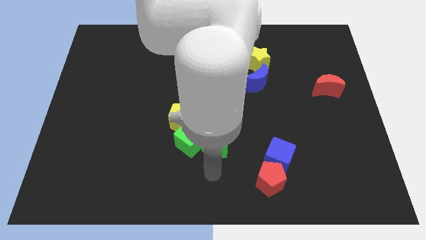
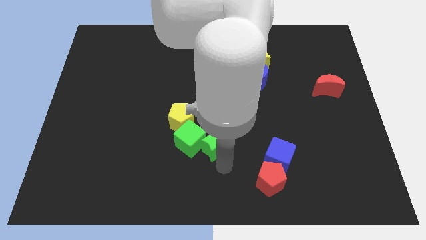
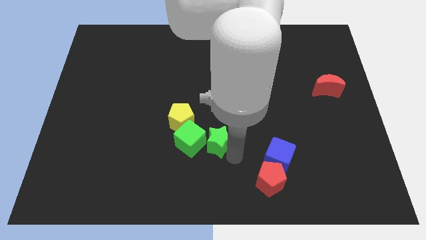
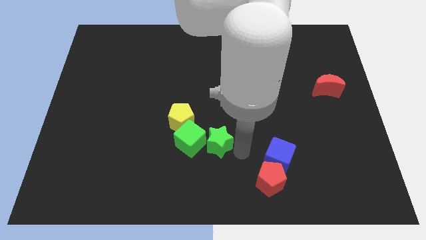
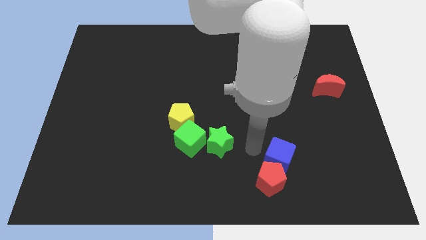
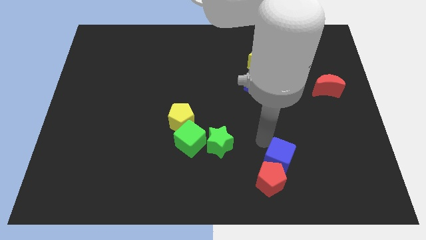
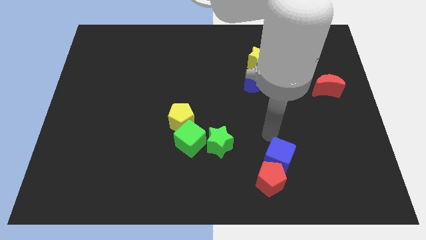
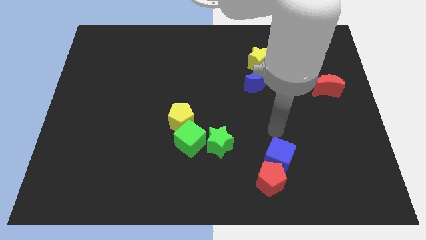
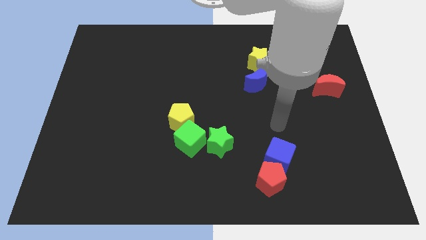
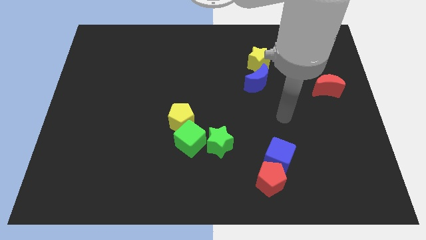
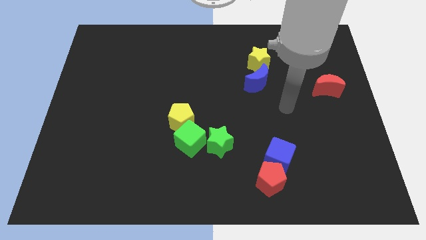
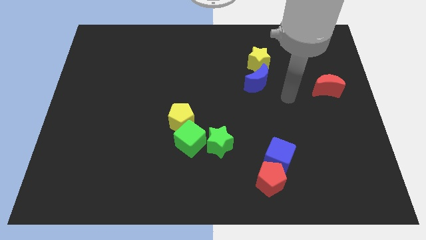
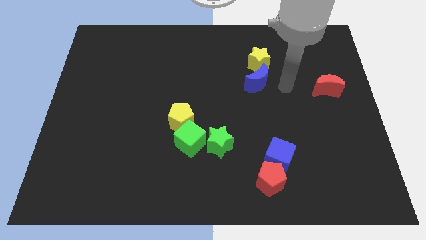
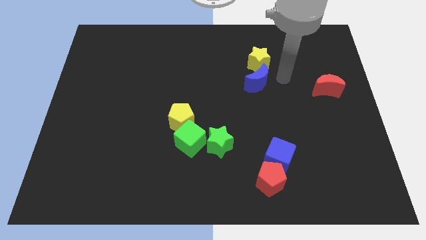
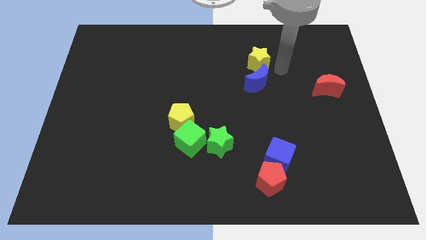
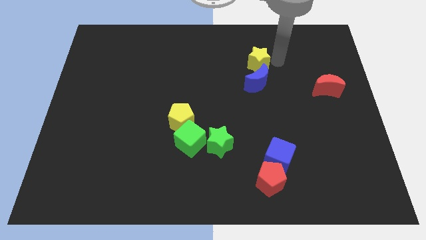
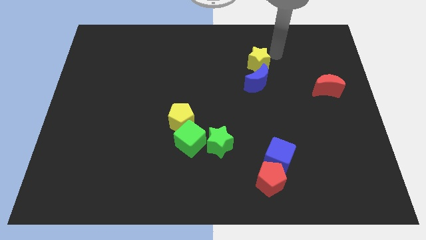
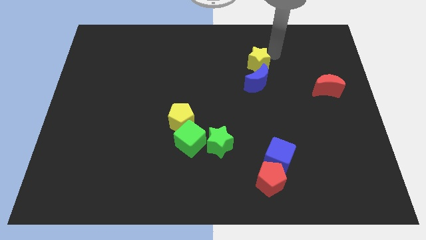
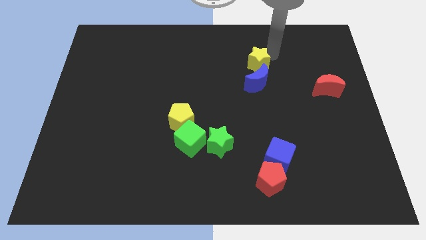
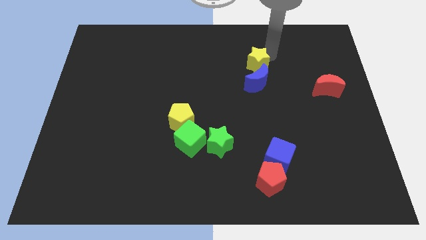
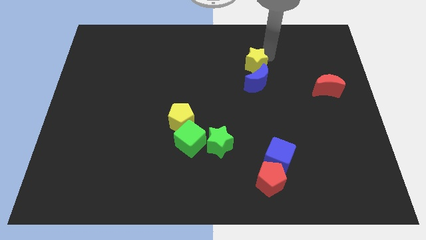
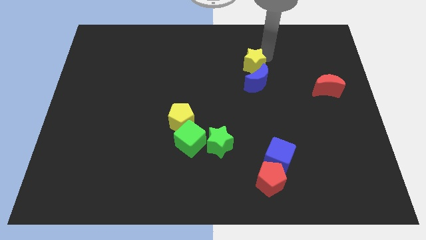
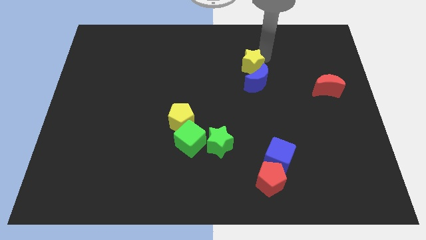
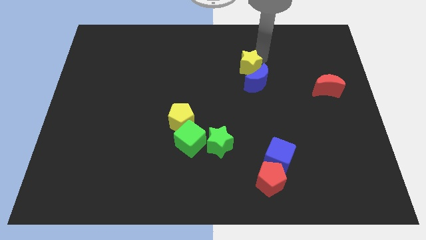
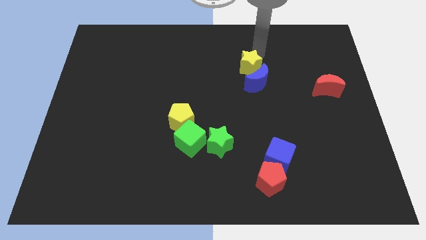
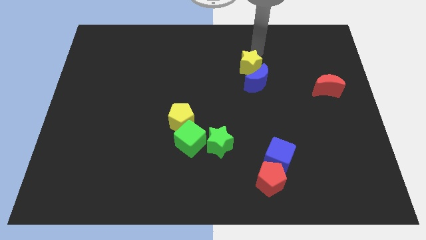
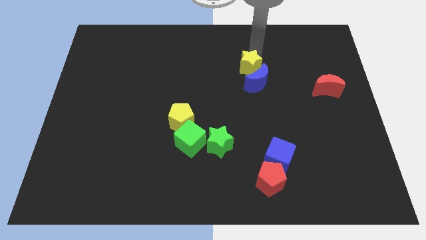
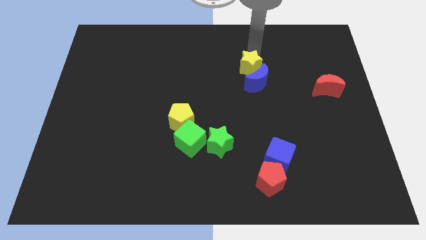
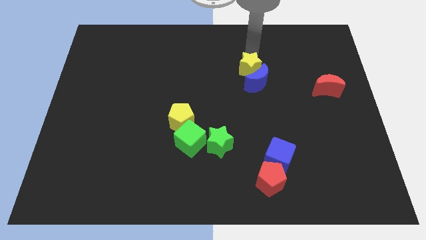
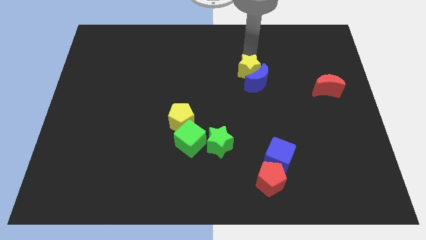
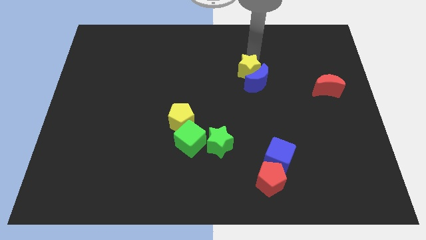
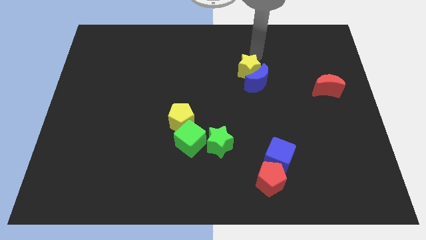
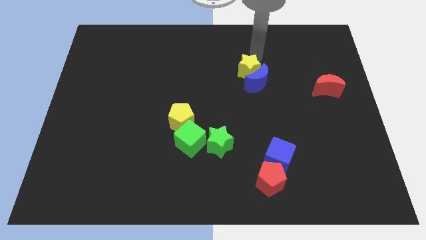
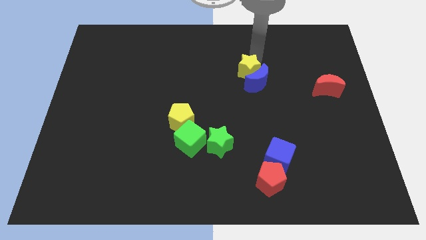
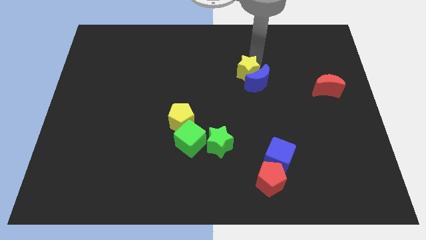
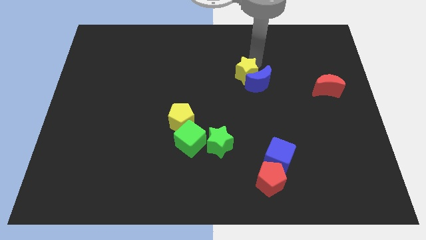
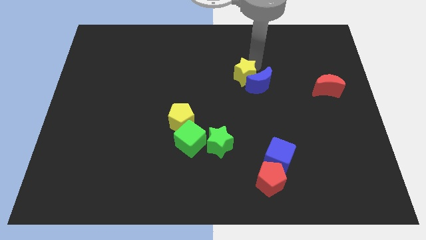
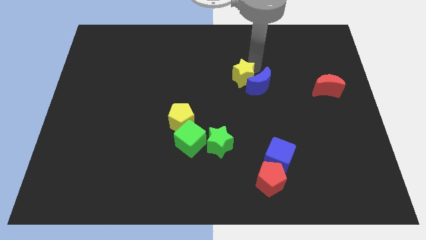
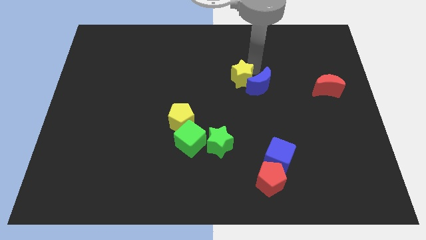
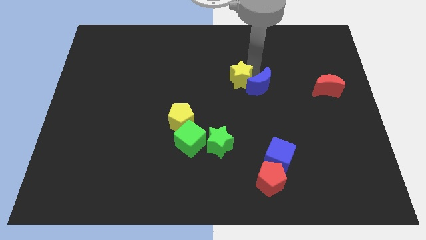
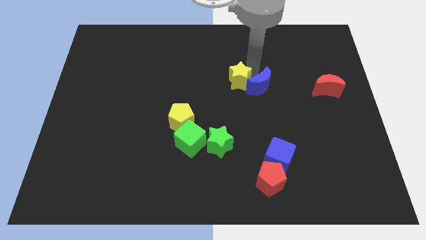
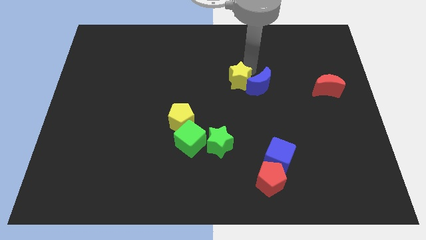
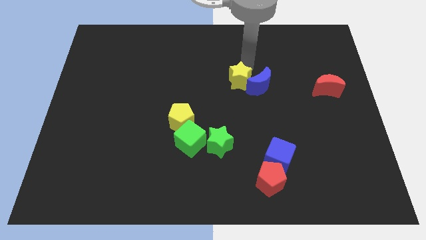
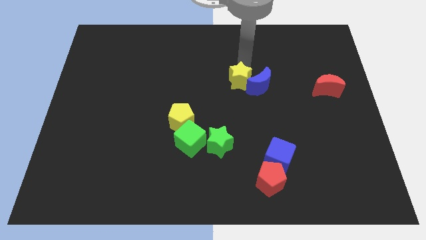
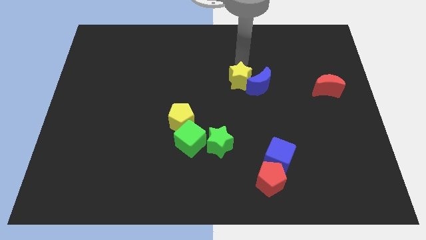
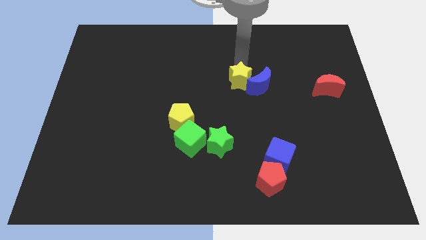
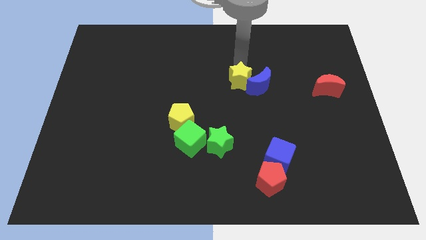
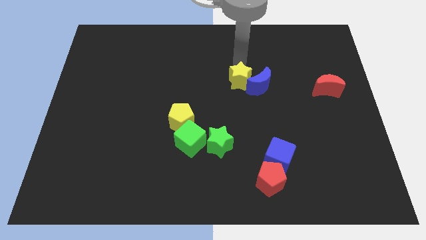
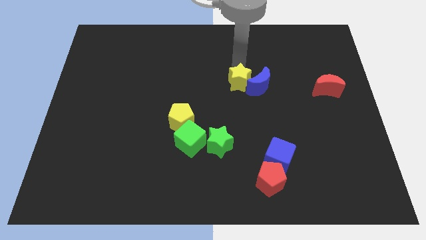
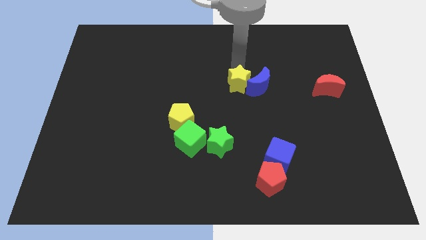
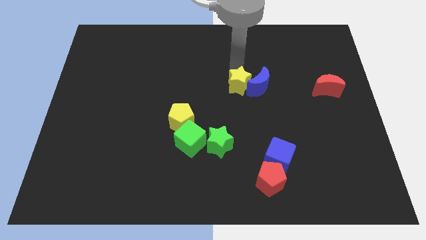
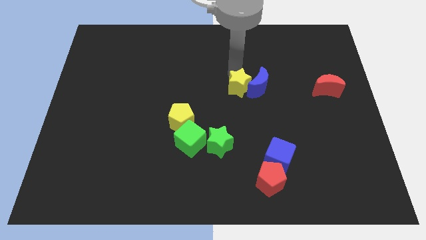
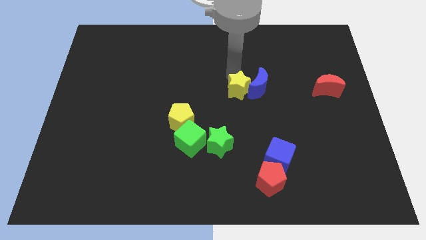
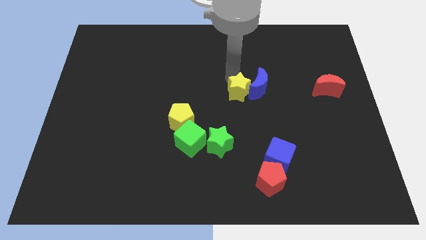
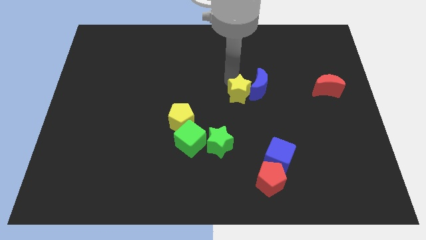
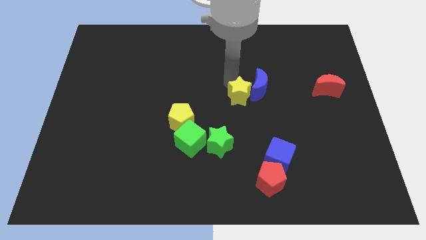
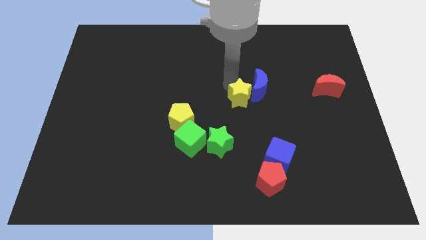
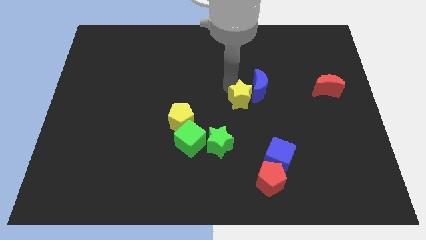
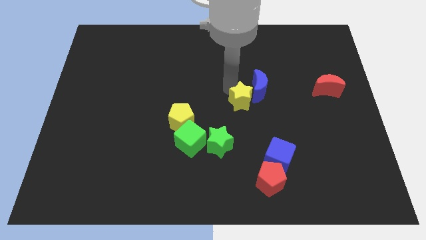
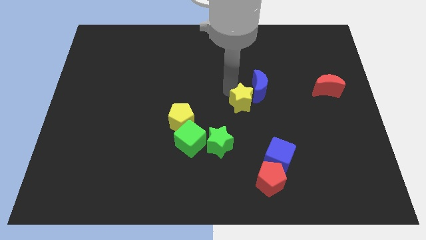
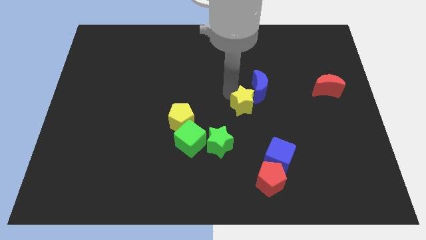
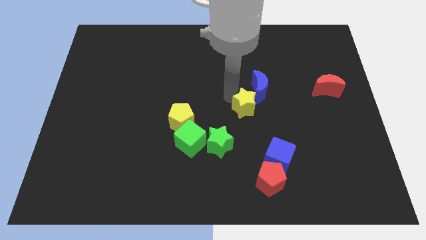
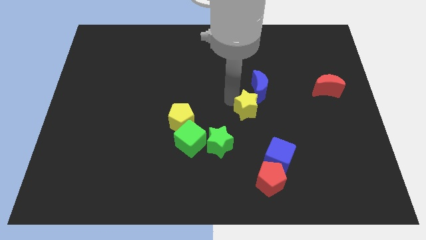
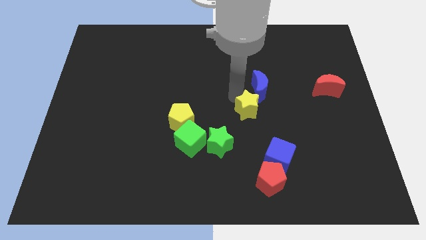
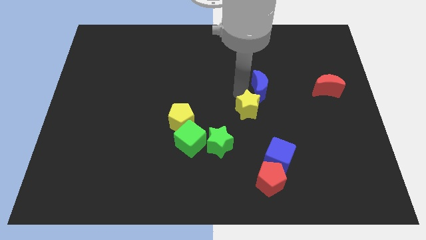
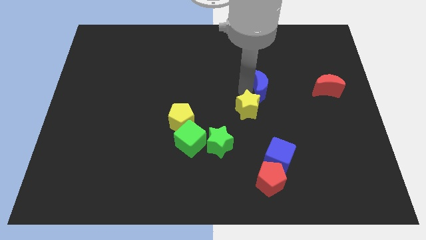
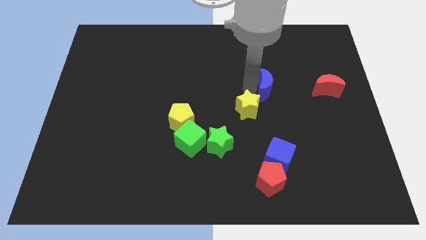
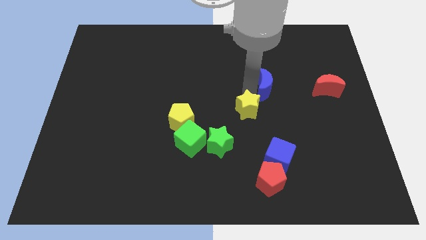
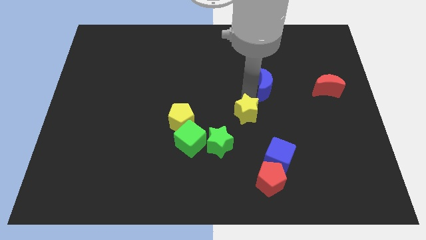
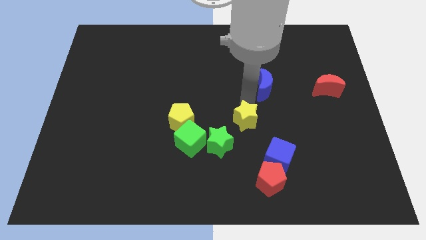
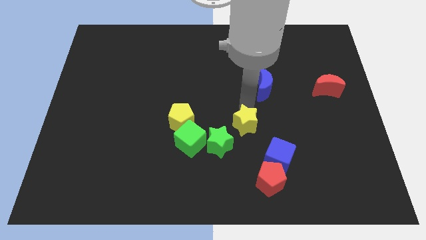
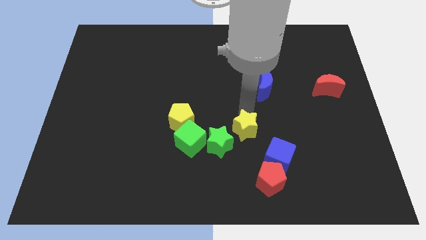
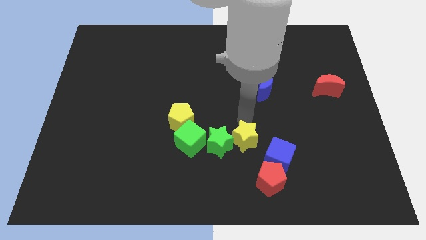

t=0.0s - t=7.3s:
move the yellow star to the bottom right side of the green star
